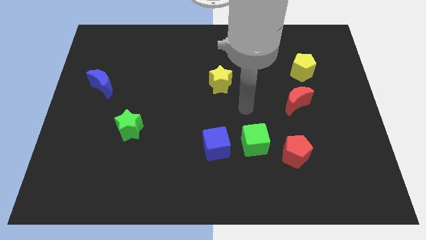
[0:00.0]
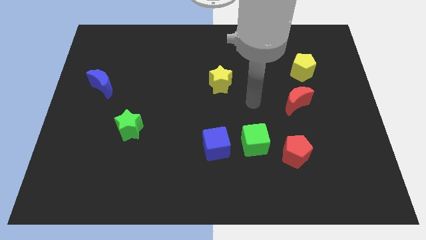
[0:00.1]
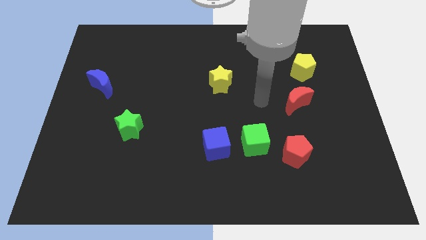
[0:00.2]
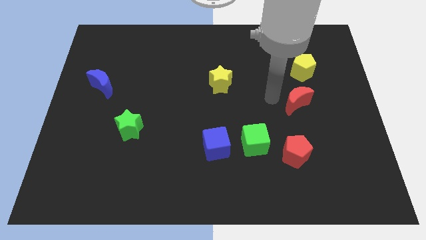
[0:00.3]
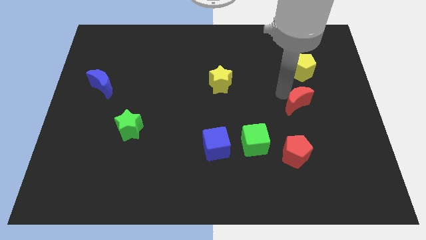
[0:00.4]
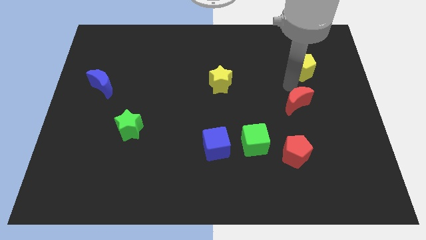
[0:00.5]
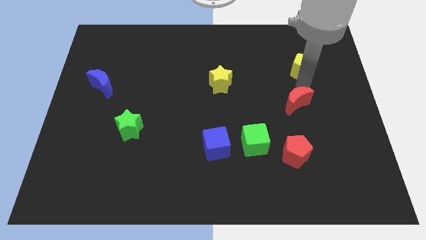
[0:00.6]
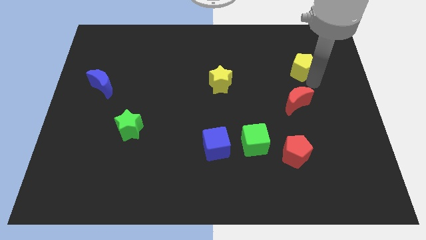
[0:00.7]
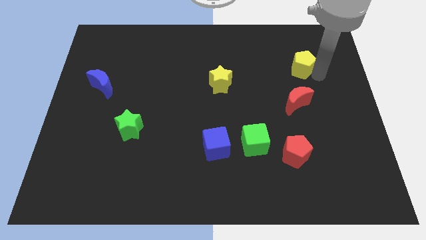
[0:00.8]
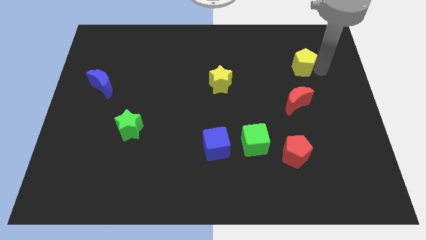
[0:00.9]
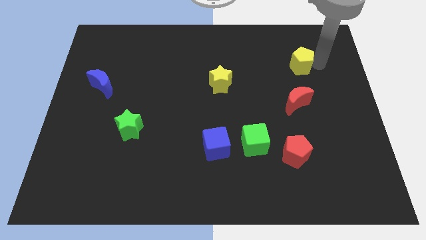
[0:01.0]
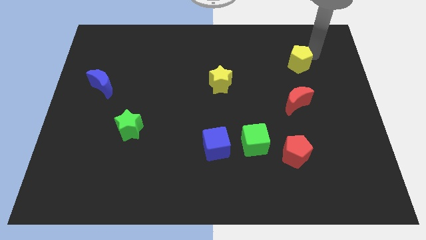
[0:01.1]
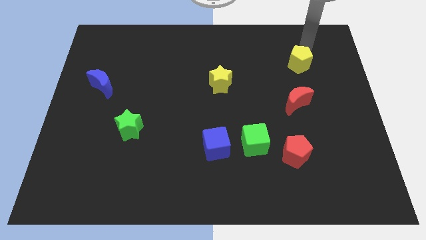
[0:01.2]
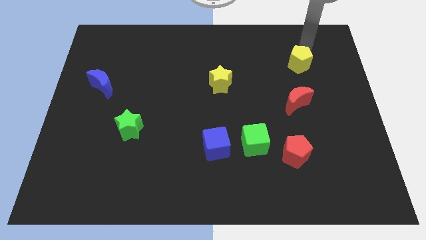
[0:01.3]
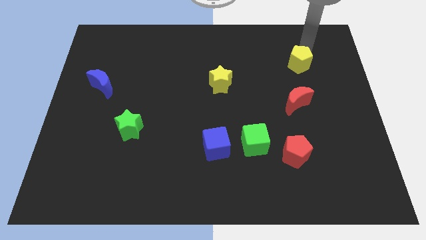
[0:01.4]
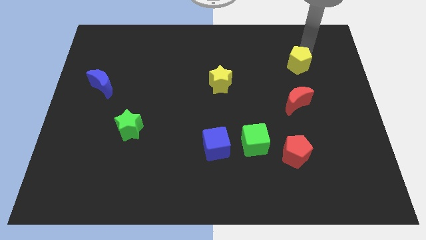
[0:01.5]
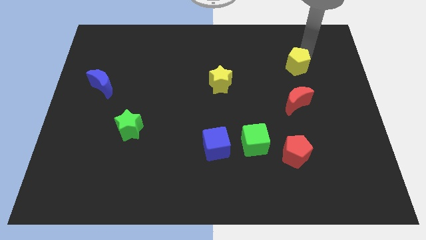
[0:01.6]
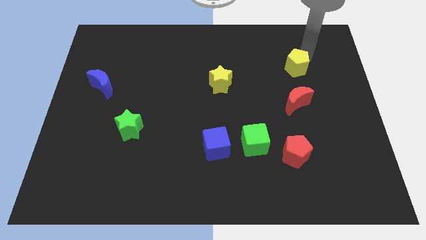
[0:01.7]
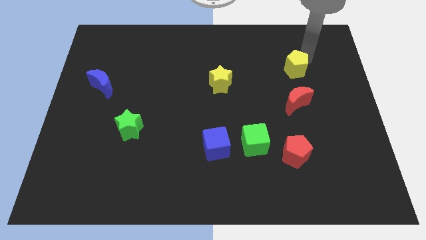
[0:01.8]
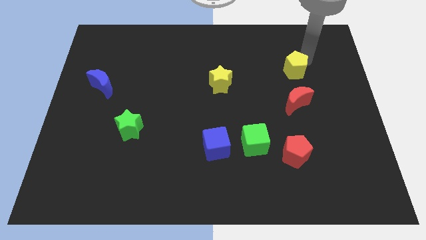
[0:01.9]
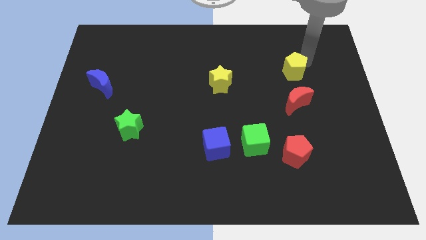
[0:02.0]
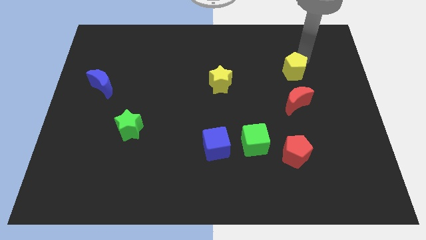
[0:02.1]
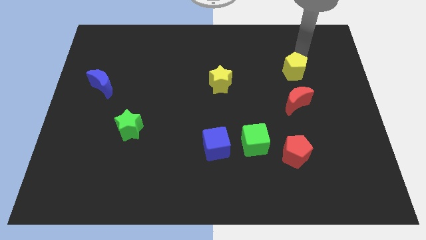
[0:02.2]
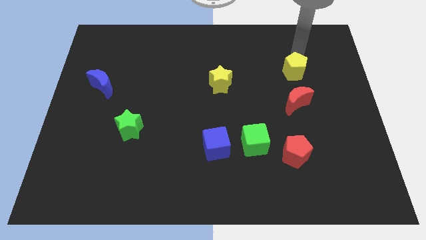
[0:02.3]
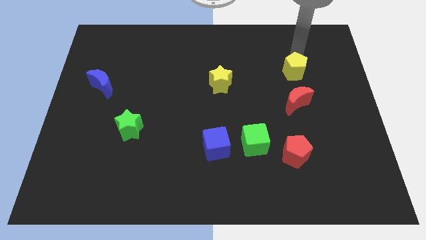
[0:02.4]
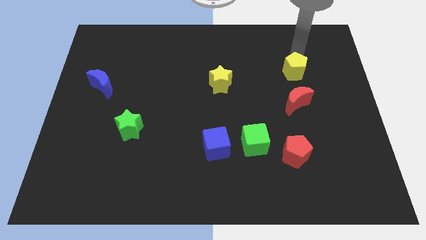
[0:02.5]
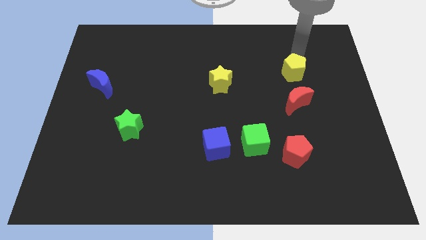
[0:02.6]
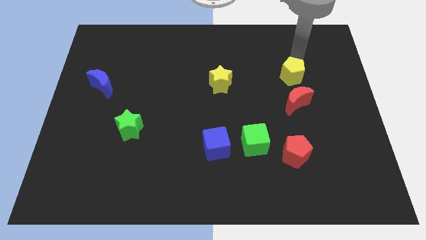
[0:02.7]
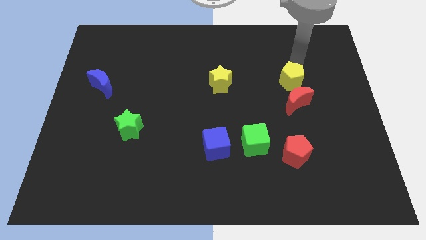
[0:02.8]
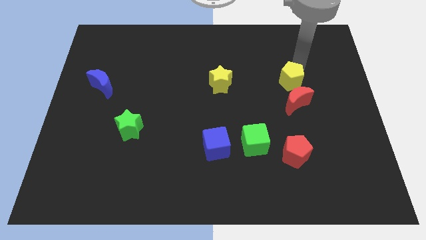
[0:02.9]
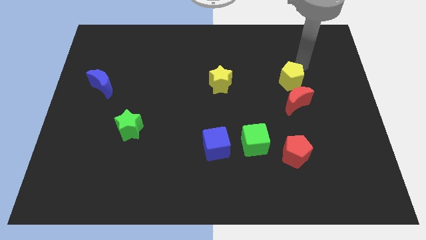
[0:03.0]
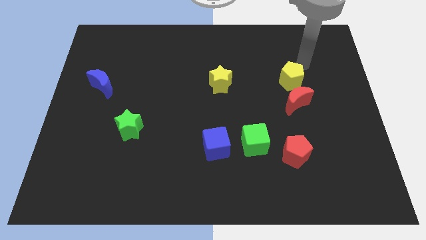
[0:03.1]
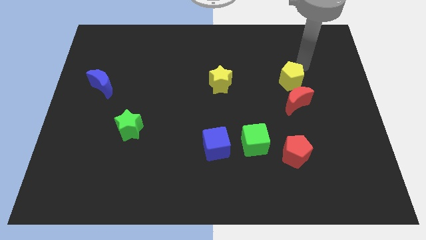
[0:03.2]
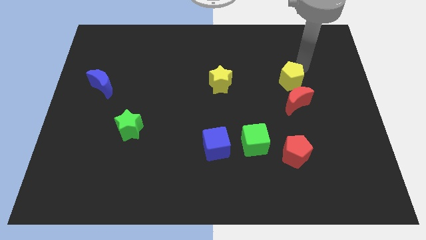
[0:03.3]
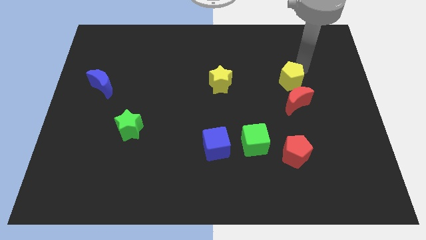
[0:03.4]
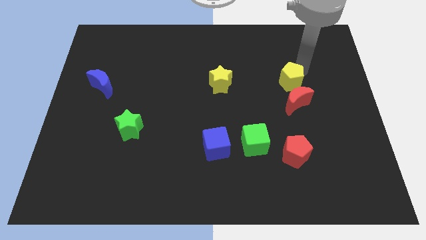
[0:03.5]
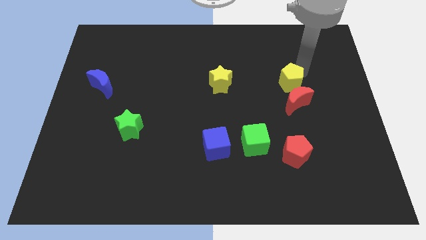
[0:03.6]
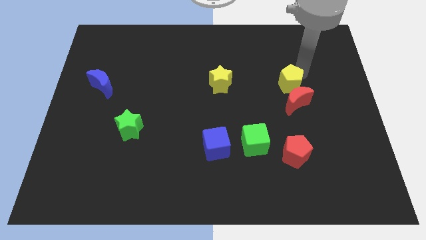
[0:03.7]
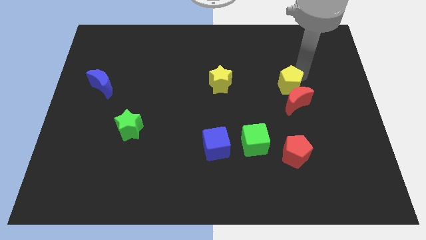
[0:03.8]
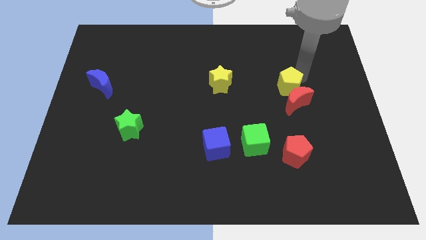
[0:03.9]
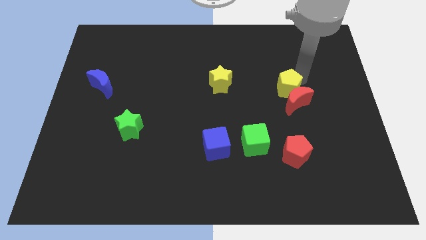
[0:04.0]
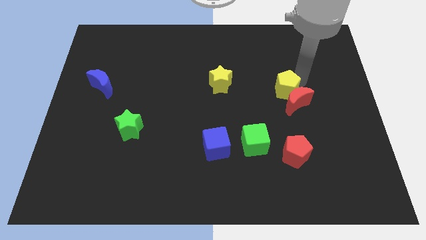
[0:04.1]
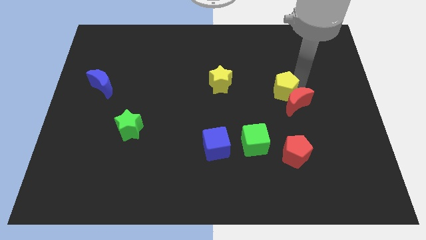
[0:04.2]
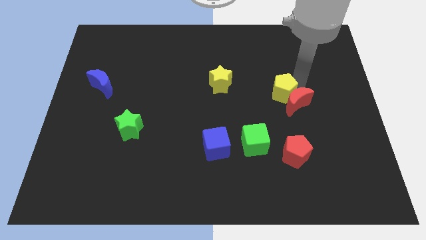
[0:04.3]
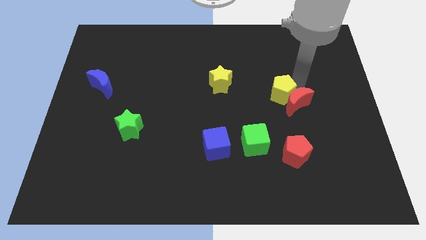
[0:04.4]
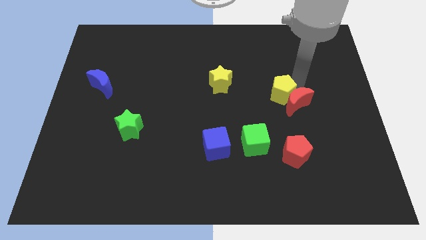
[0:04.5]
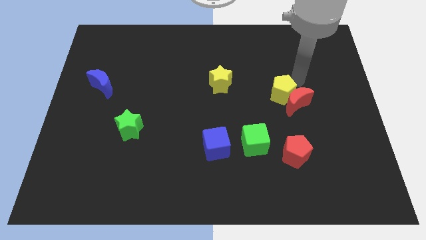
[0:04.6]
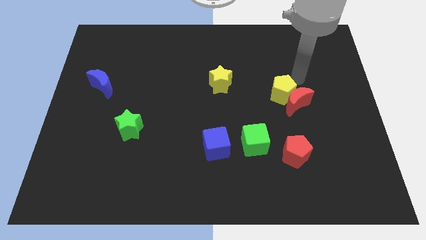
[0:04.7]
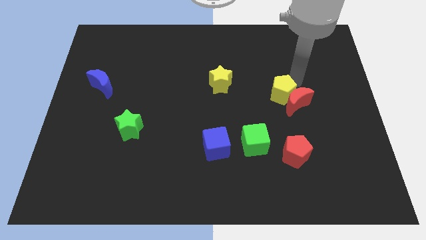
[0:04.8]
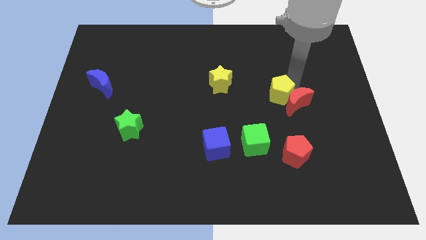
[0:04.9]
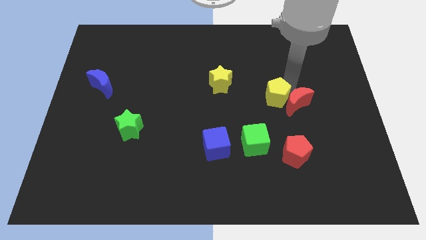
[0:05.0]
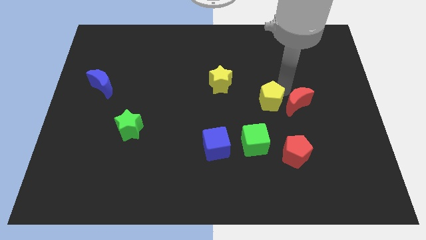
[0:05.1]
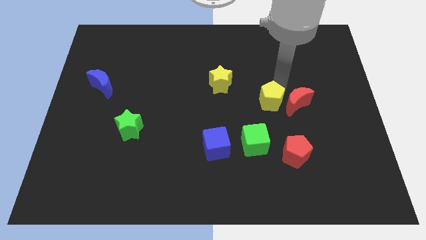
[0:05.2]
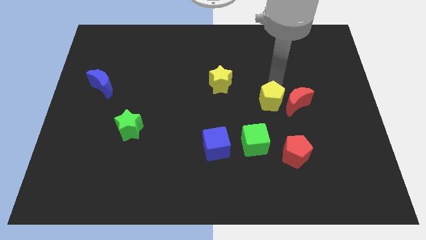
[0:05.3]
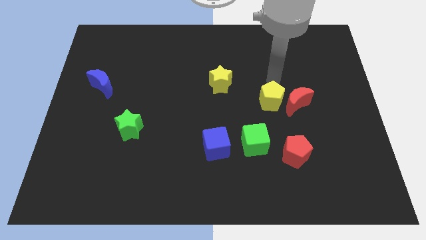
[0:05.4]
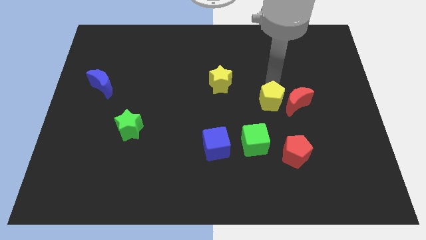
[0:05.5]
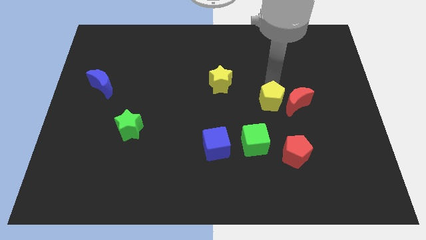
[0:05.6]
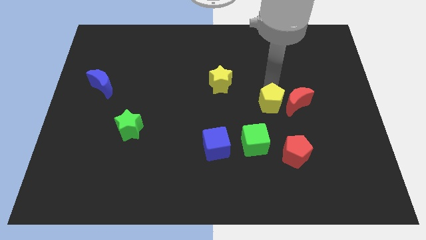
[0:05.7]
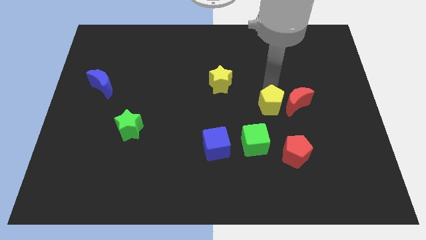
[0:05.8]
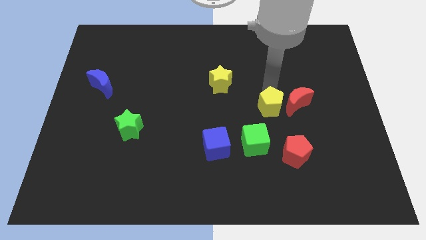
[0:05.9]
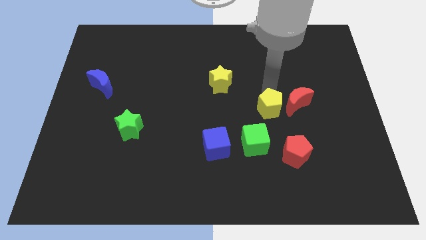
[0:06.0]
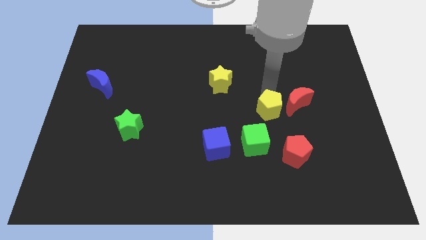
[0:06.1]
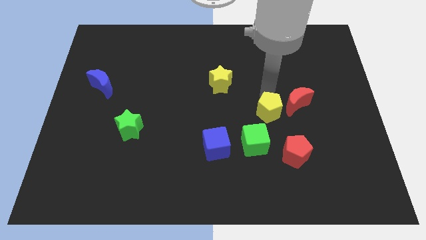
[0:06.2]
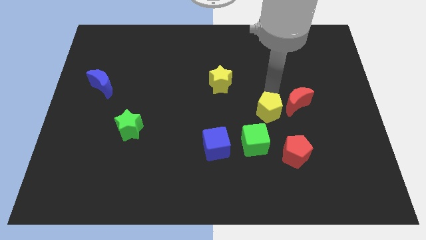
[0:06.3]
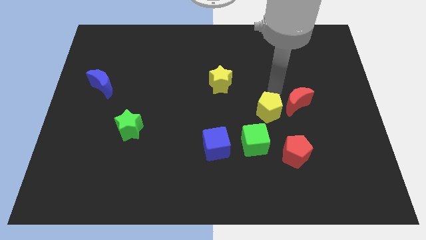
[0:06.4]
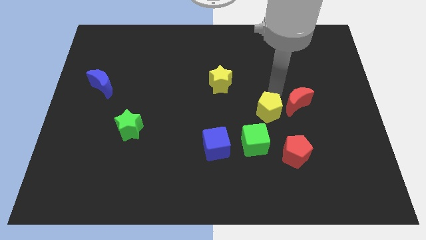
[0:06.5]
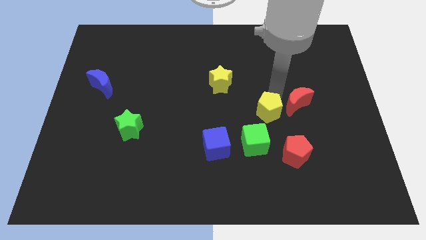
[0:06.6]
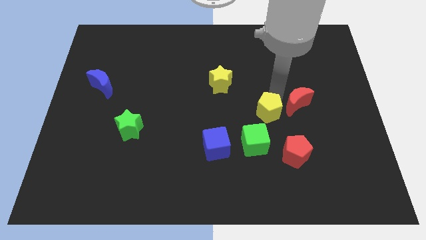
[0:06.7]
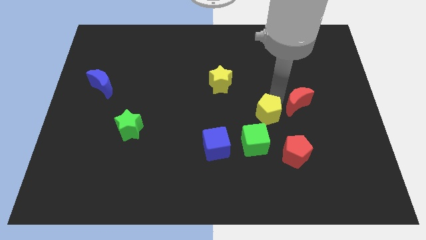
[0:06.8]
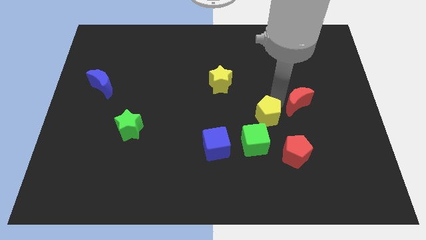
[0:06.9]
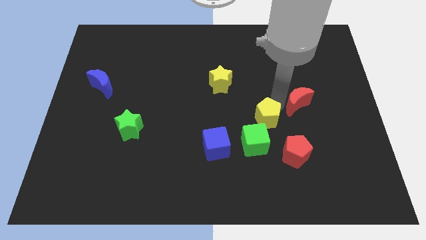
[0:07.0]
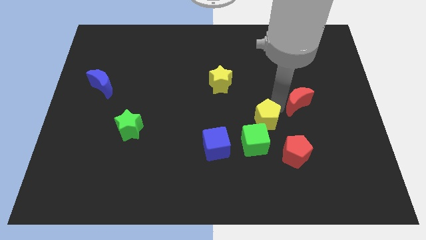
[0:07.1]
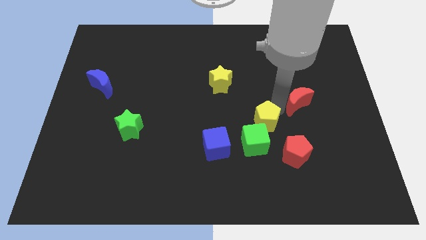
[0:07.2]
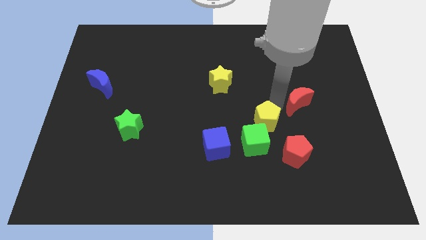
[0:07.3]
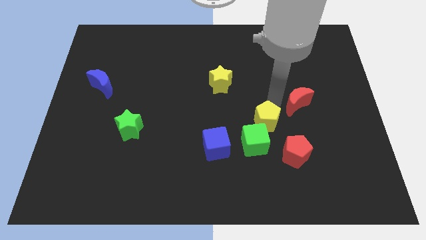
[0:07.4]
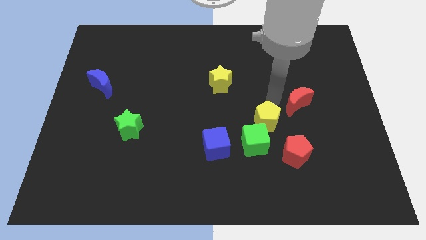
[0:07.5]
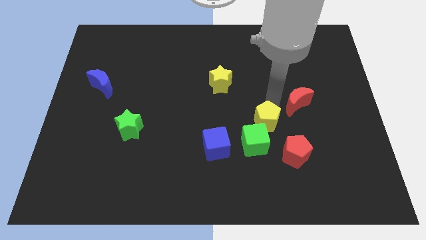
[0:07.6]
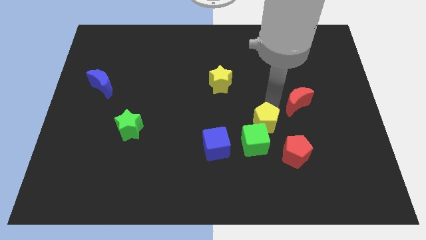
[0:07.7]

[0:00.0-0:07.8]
push the yellow pentagon next to the green cube
